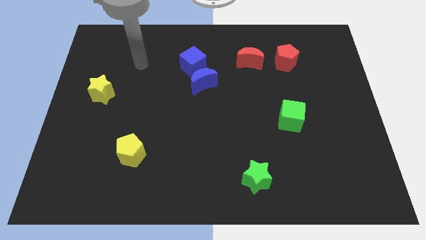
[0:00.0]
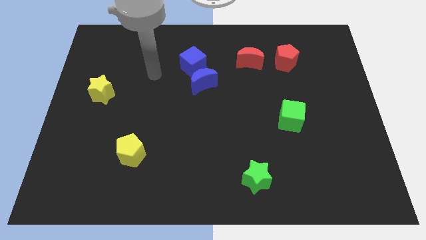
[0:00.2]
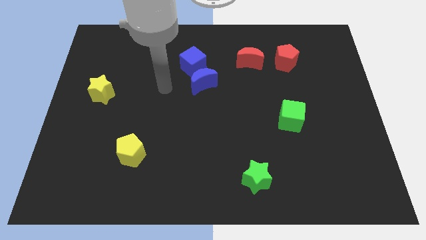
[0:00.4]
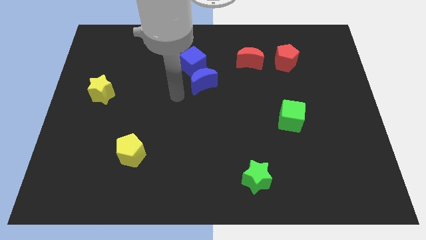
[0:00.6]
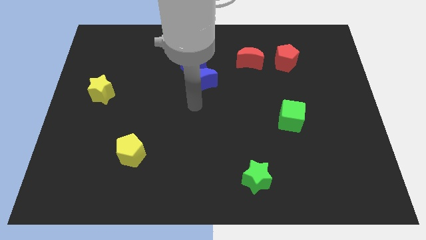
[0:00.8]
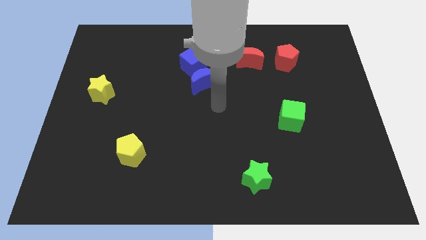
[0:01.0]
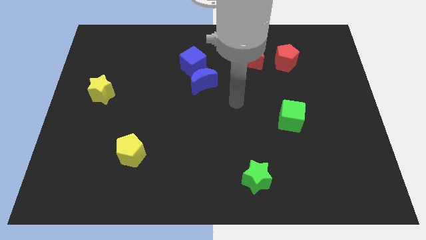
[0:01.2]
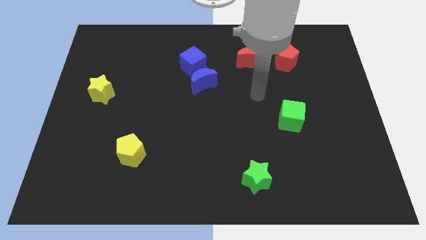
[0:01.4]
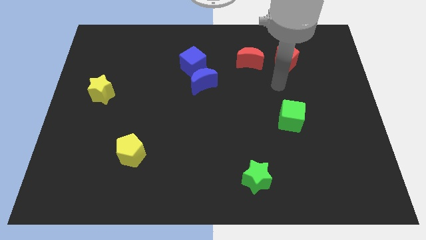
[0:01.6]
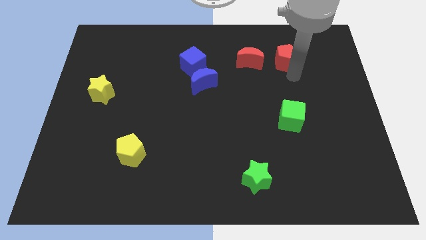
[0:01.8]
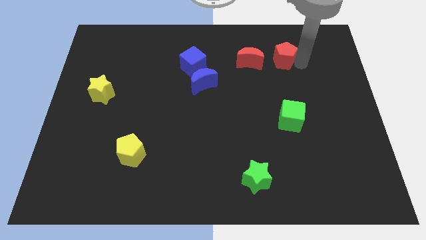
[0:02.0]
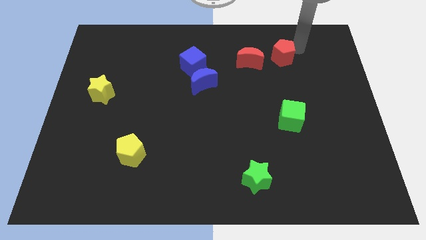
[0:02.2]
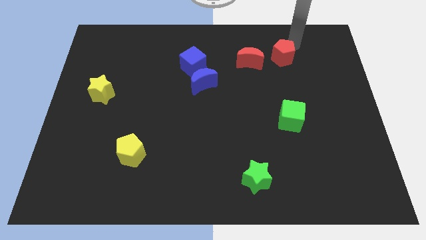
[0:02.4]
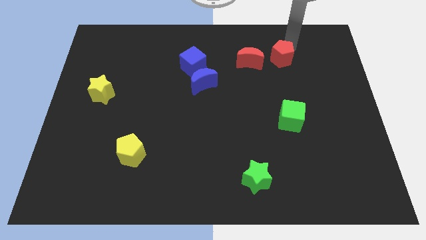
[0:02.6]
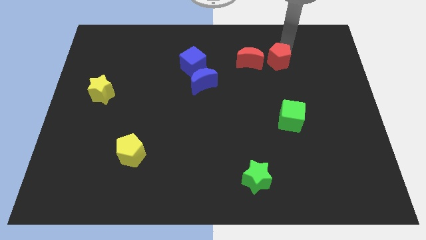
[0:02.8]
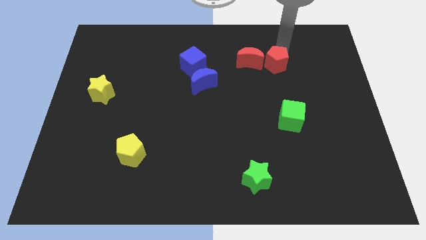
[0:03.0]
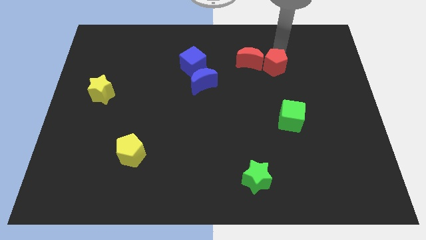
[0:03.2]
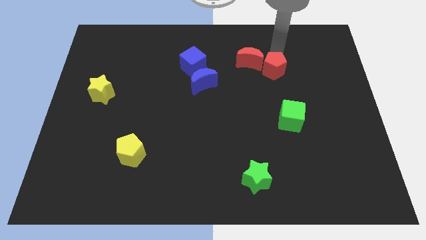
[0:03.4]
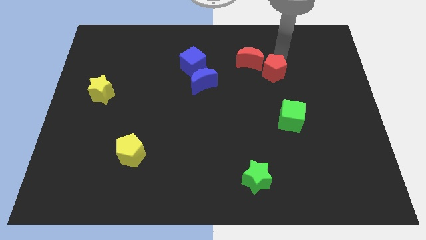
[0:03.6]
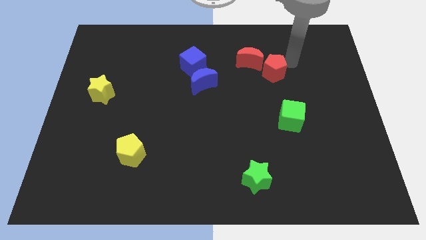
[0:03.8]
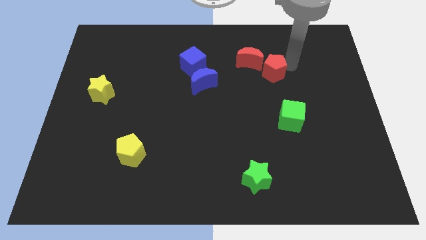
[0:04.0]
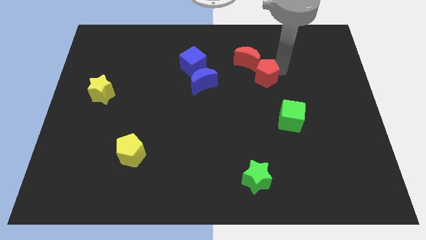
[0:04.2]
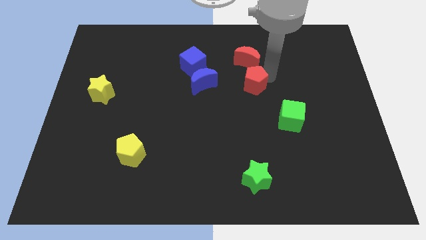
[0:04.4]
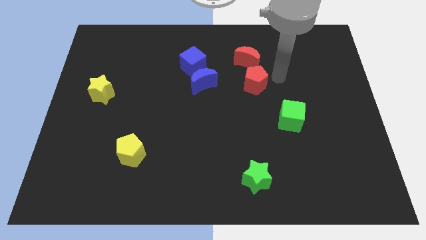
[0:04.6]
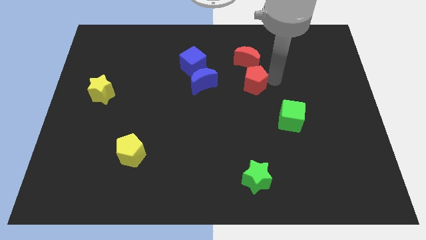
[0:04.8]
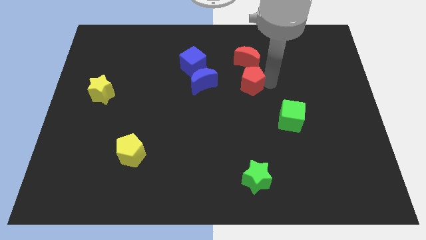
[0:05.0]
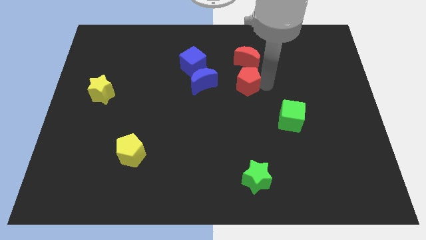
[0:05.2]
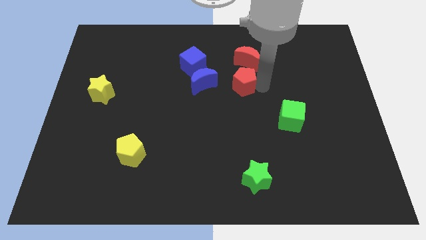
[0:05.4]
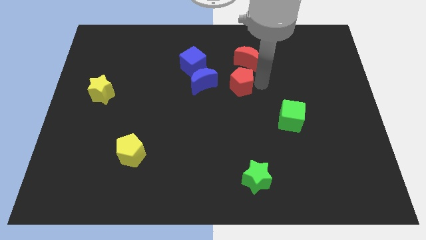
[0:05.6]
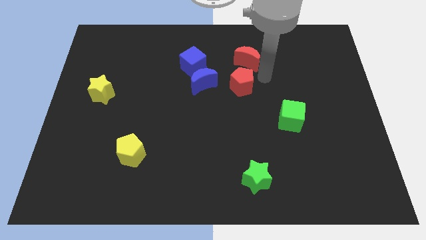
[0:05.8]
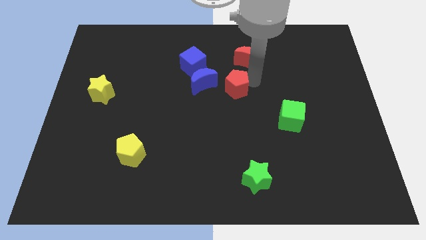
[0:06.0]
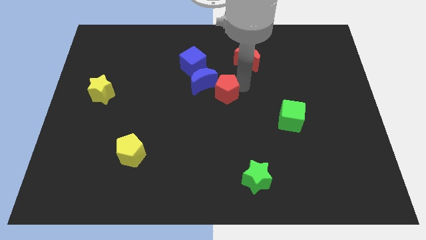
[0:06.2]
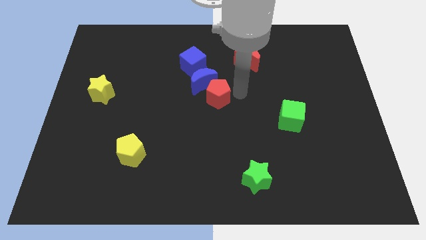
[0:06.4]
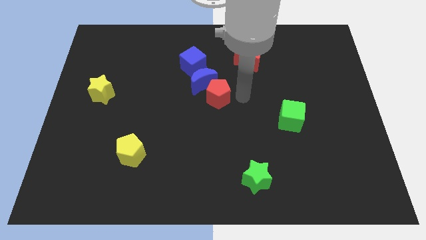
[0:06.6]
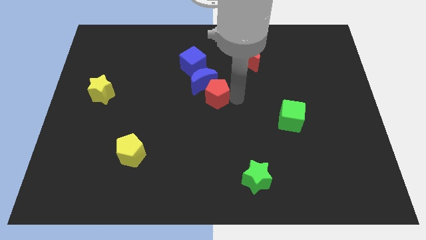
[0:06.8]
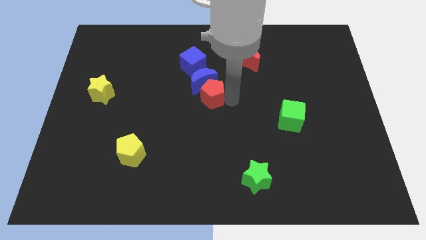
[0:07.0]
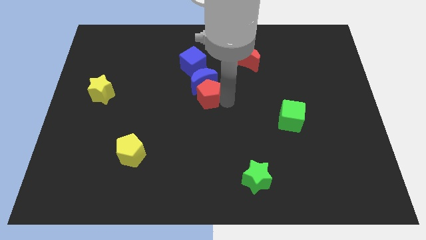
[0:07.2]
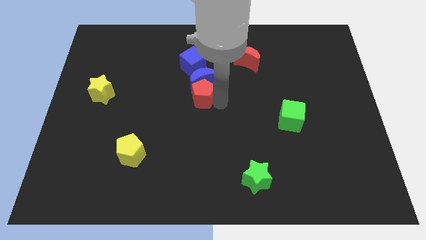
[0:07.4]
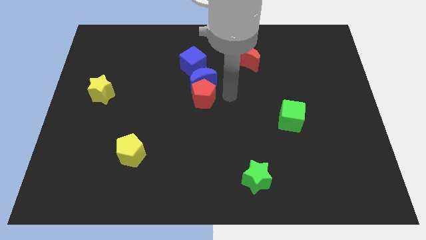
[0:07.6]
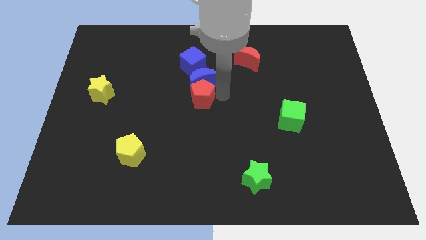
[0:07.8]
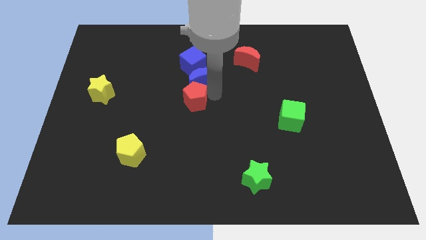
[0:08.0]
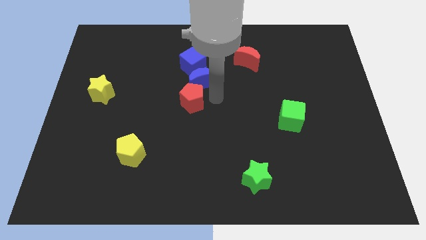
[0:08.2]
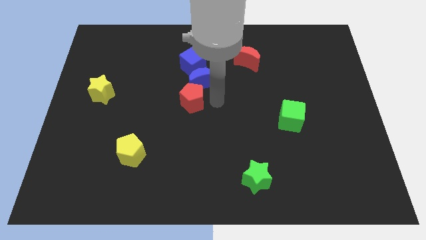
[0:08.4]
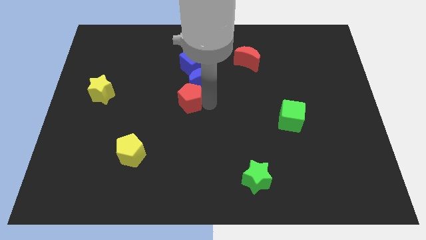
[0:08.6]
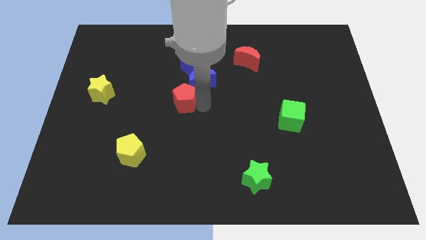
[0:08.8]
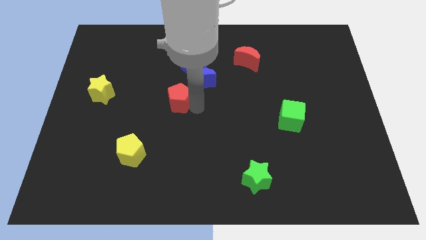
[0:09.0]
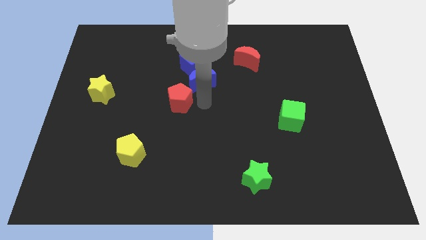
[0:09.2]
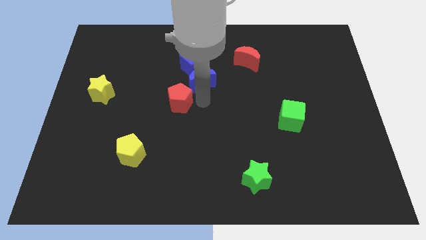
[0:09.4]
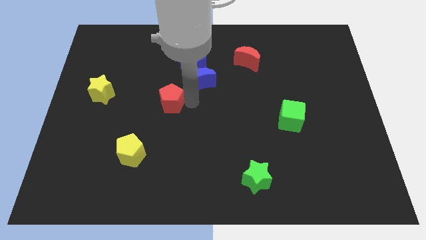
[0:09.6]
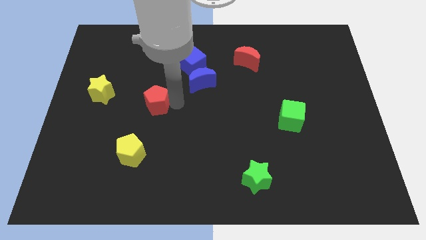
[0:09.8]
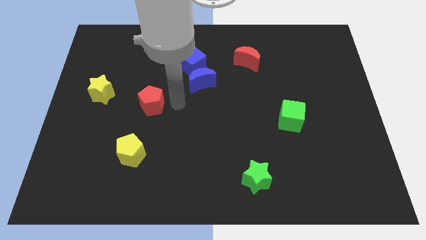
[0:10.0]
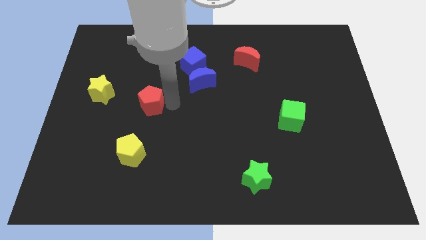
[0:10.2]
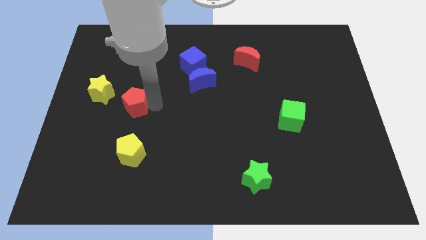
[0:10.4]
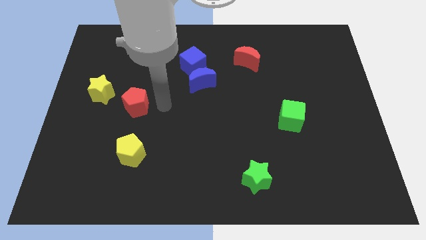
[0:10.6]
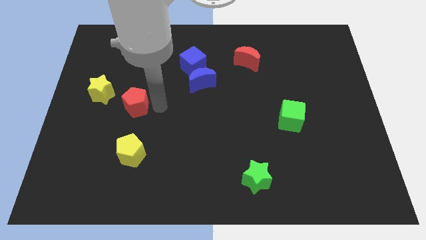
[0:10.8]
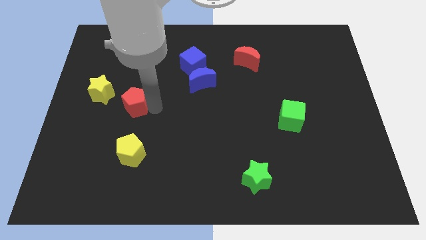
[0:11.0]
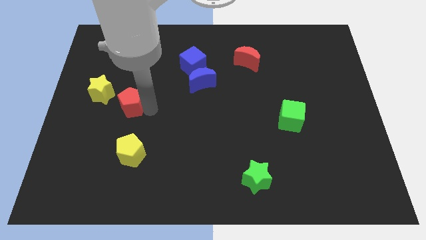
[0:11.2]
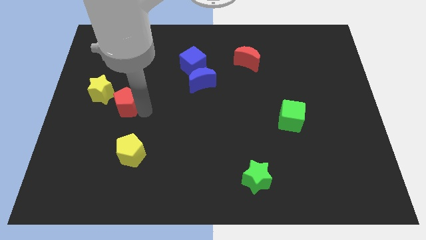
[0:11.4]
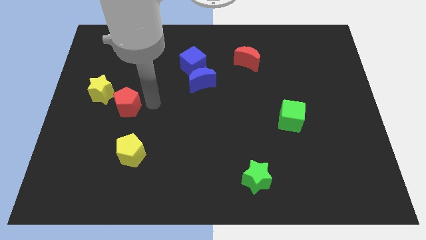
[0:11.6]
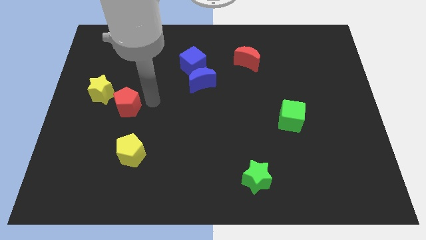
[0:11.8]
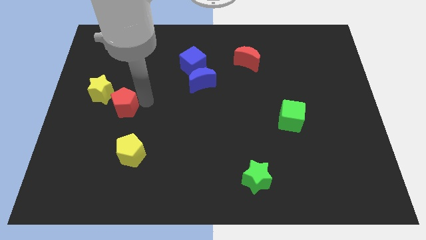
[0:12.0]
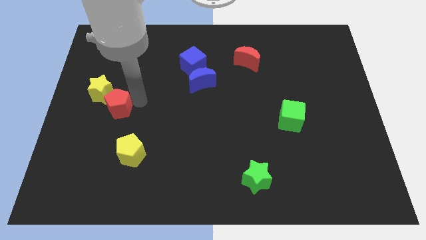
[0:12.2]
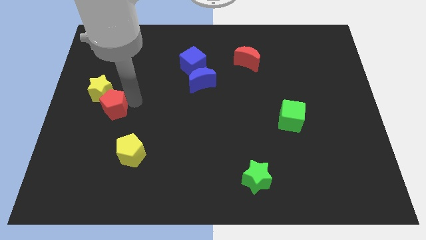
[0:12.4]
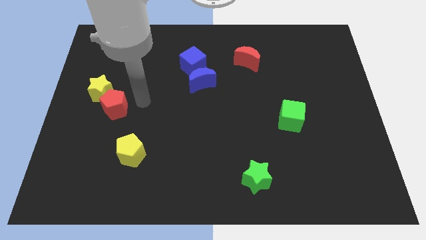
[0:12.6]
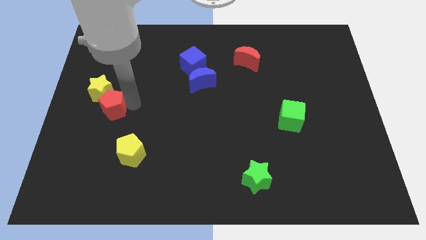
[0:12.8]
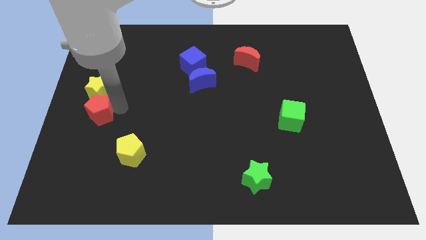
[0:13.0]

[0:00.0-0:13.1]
push the red pentagon to the left side

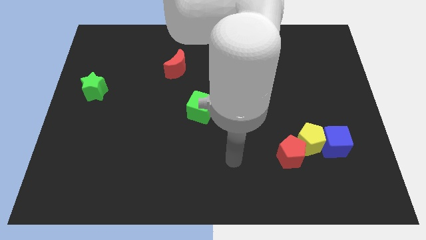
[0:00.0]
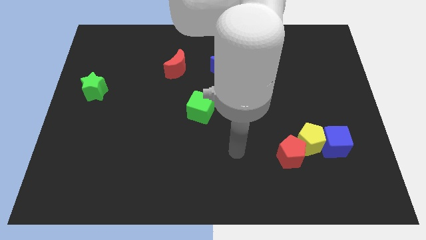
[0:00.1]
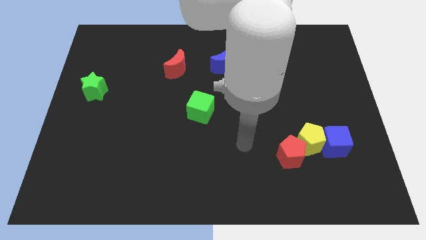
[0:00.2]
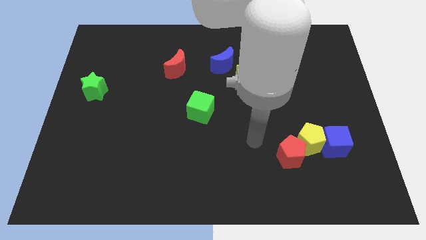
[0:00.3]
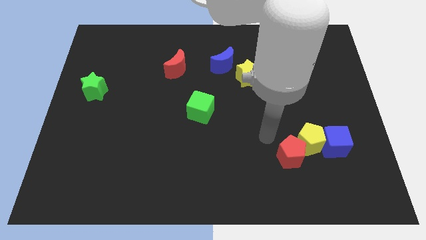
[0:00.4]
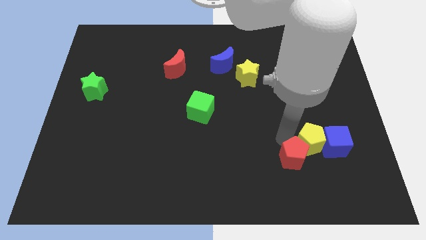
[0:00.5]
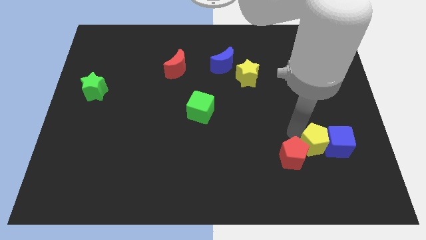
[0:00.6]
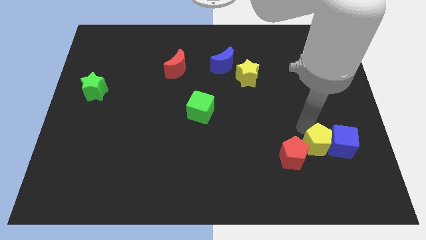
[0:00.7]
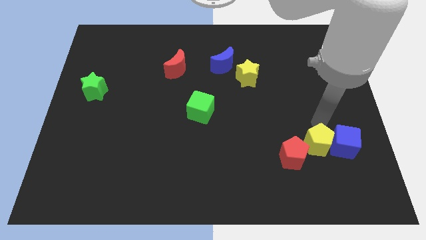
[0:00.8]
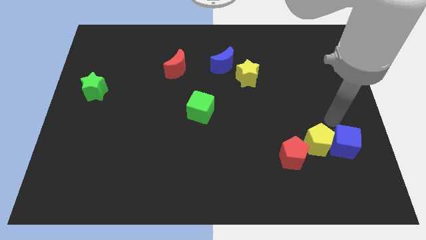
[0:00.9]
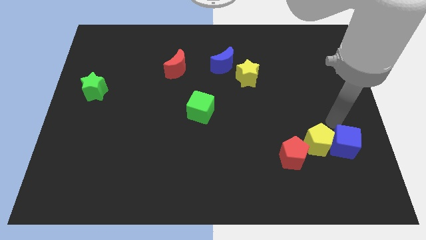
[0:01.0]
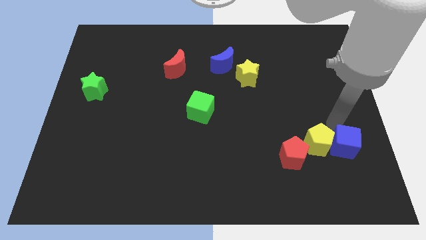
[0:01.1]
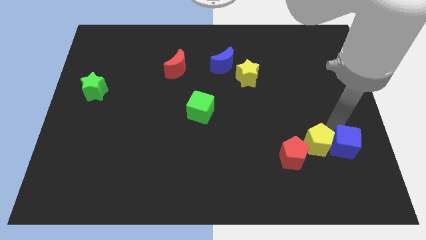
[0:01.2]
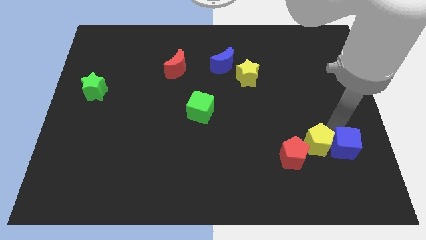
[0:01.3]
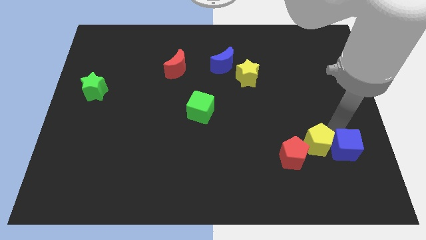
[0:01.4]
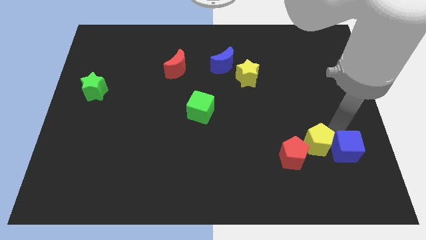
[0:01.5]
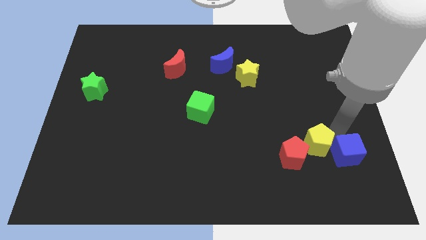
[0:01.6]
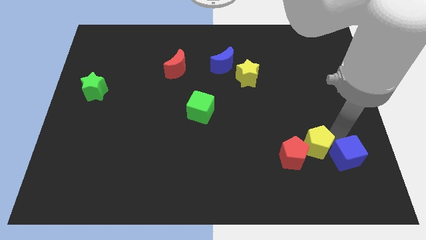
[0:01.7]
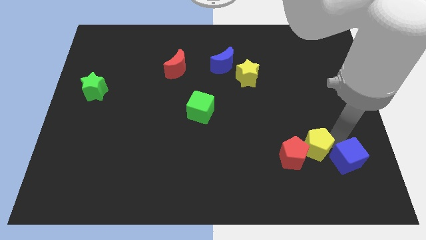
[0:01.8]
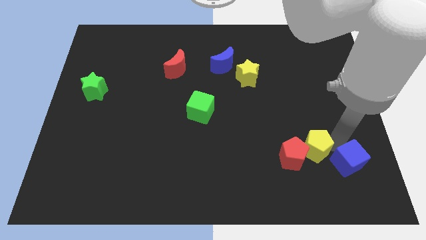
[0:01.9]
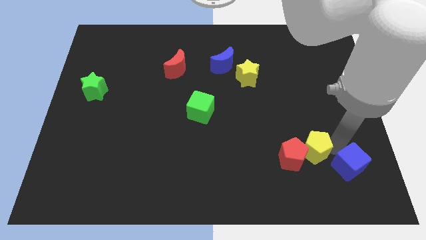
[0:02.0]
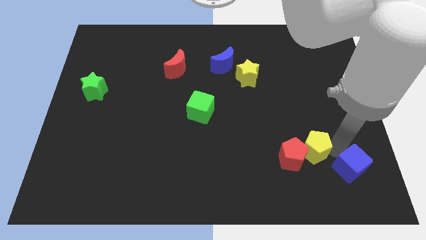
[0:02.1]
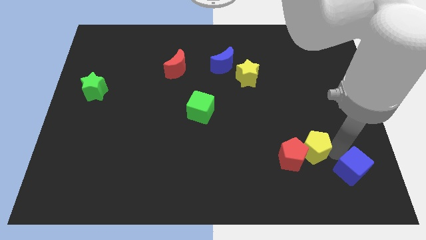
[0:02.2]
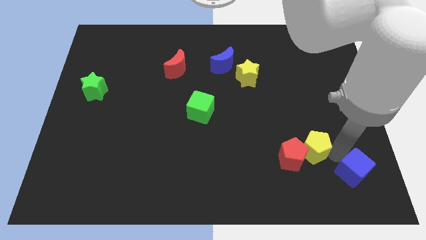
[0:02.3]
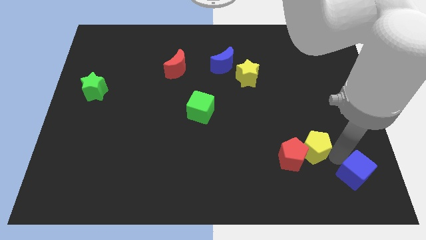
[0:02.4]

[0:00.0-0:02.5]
put the blue cube to the bottom right of the board
